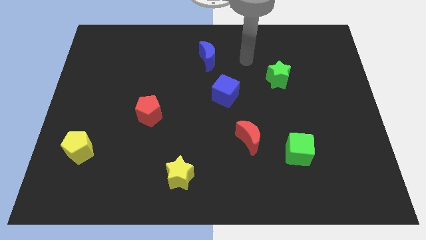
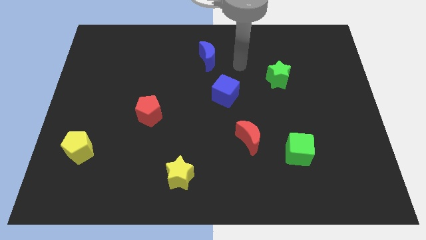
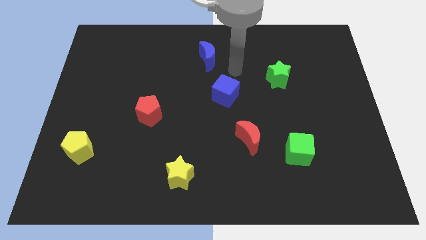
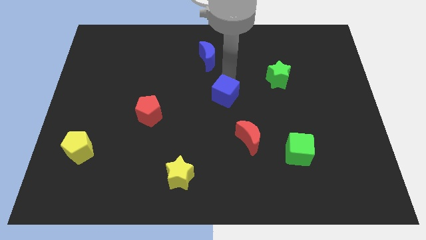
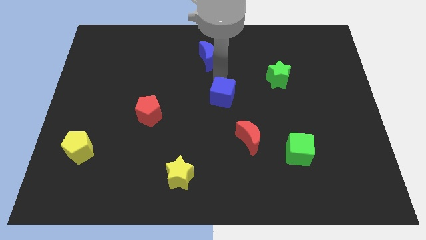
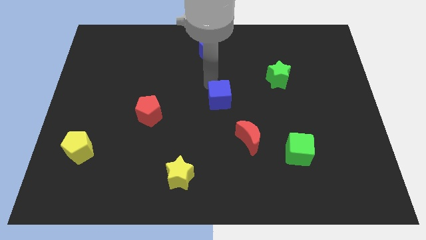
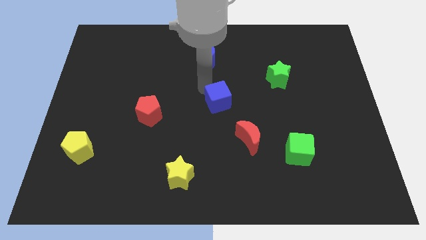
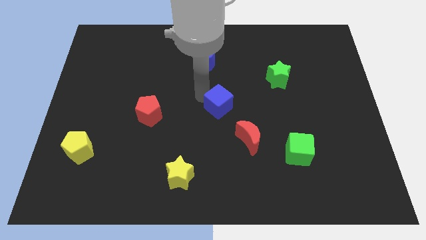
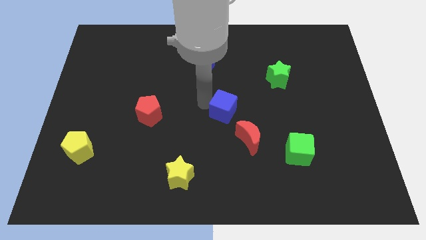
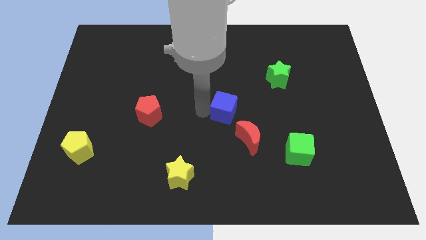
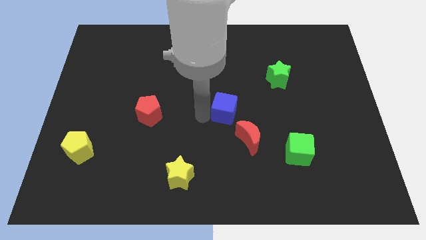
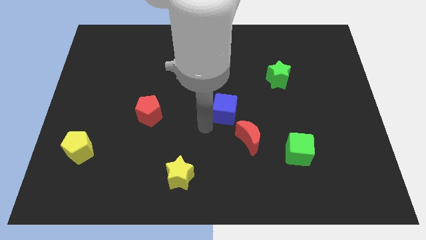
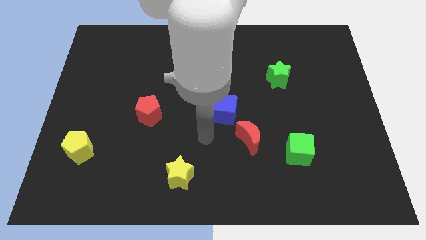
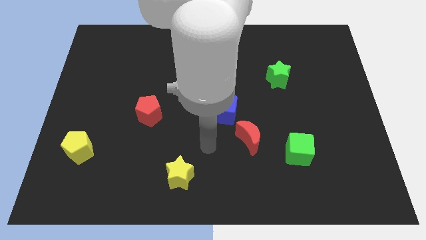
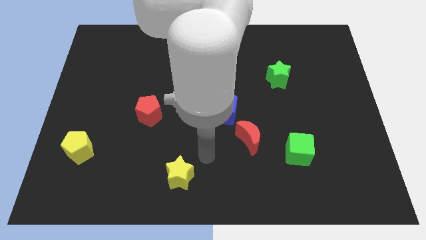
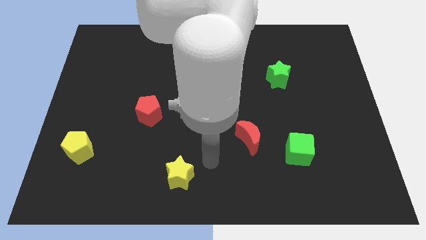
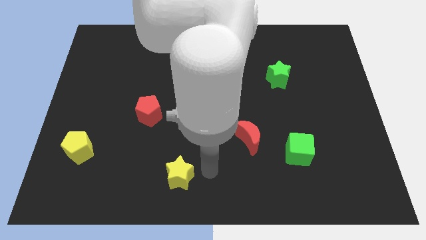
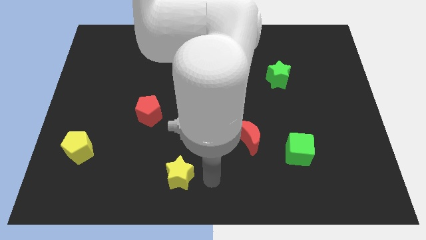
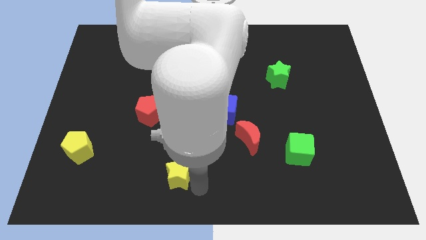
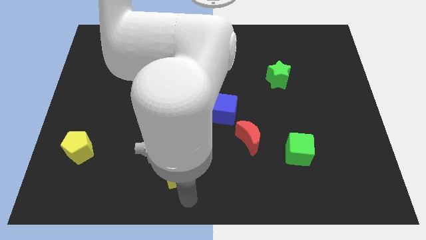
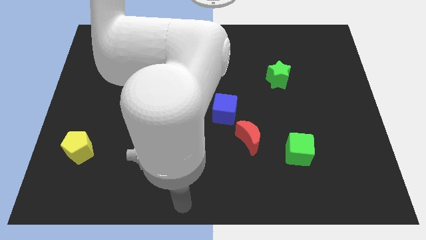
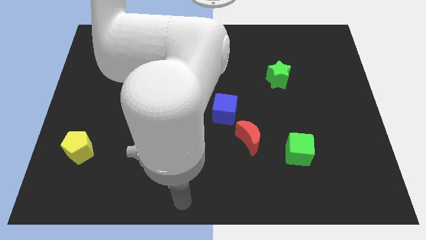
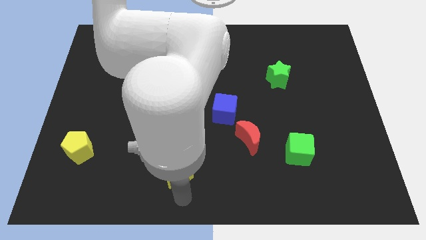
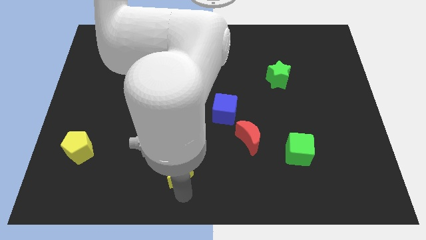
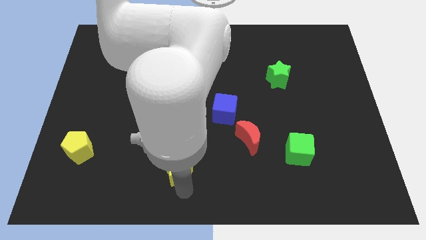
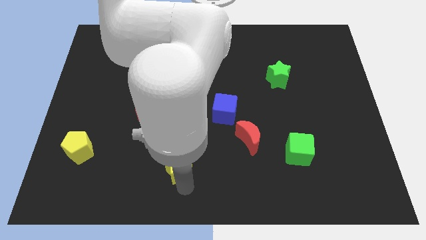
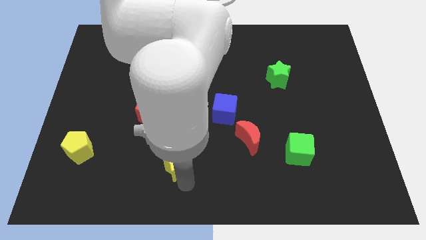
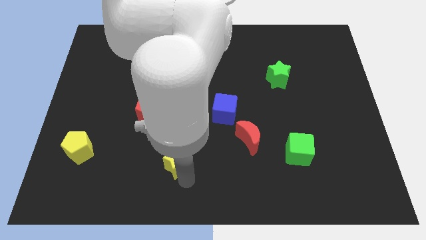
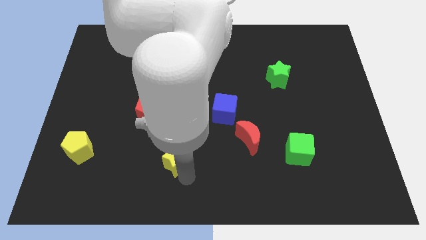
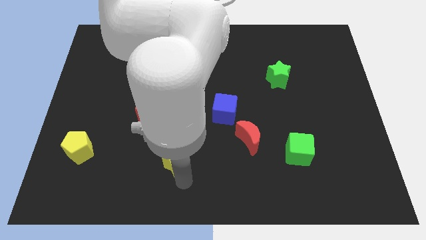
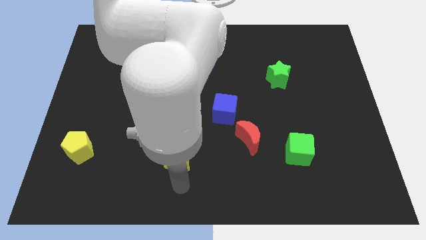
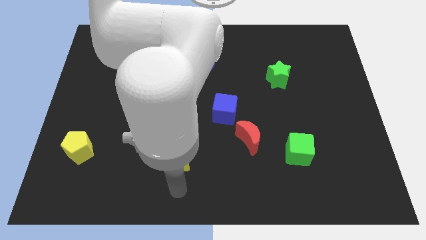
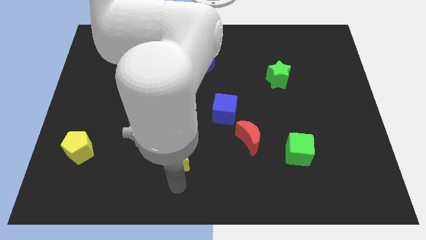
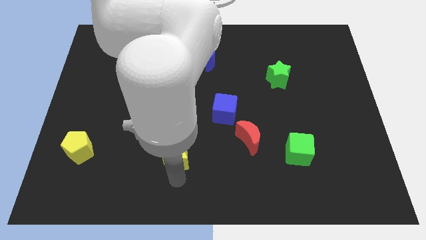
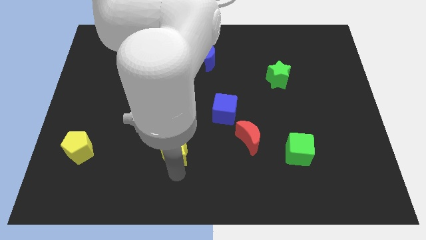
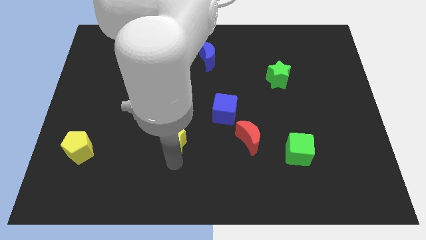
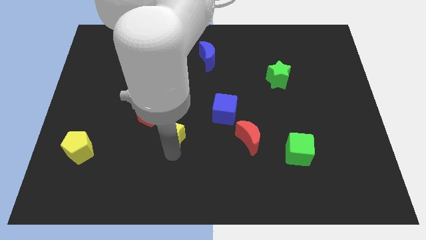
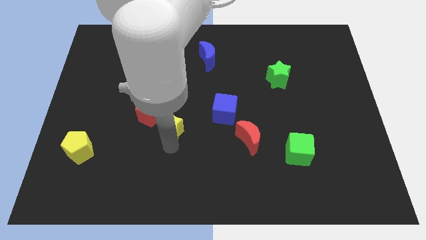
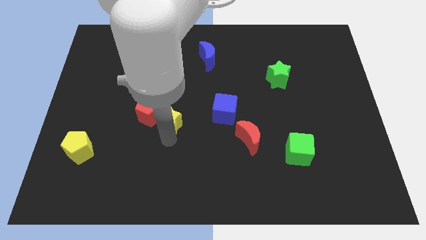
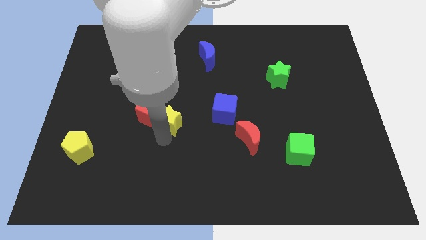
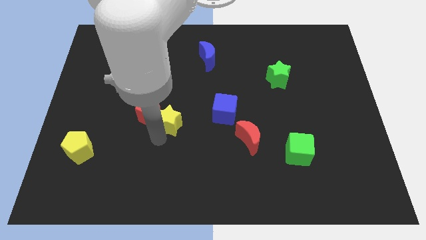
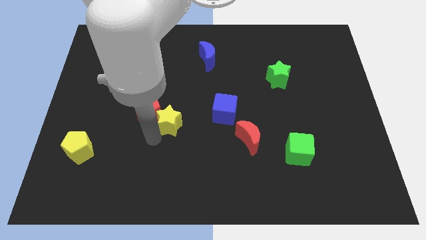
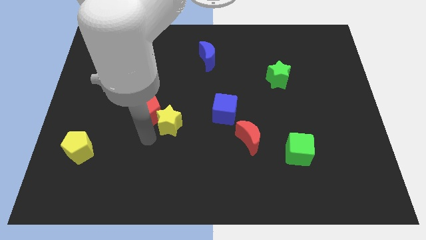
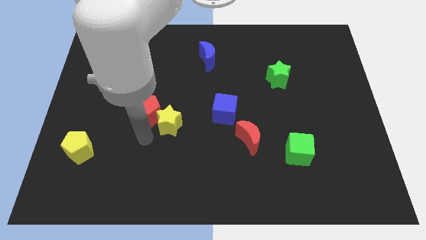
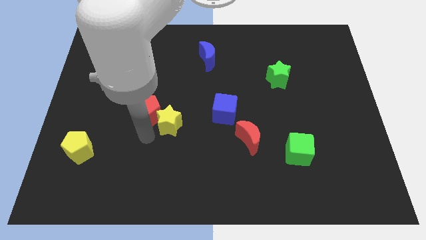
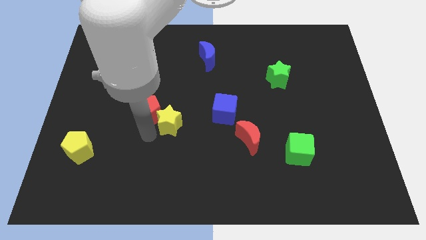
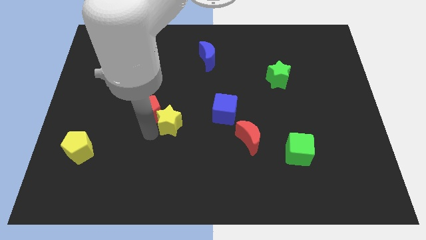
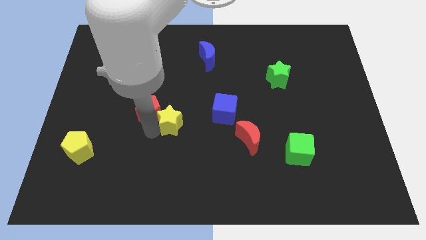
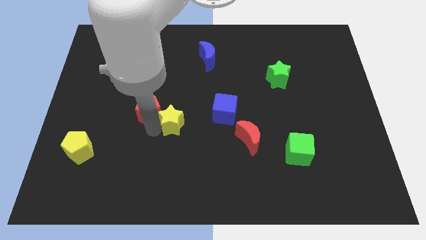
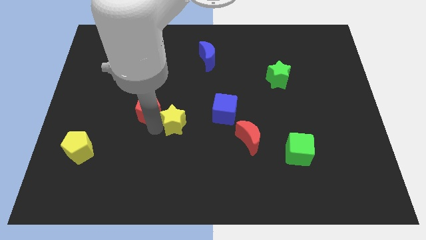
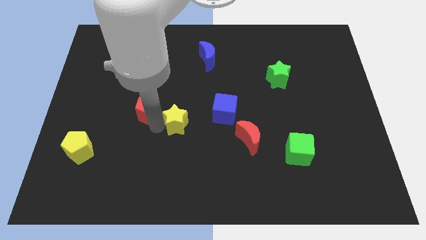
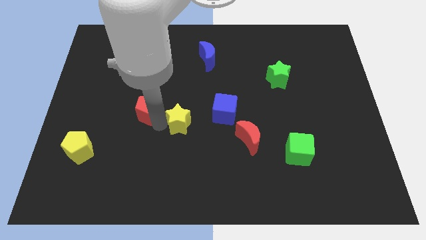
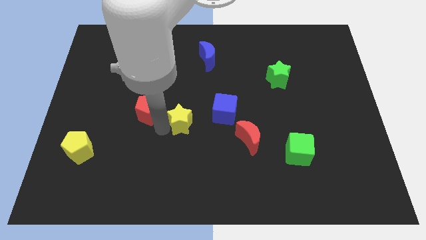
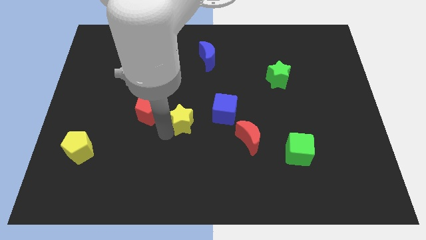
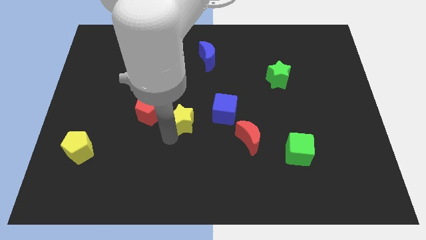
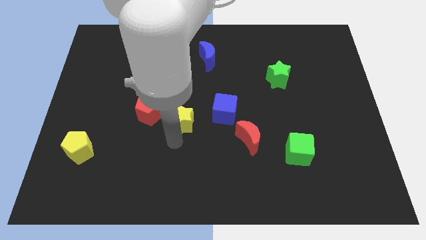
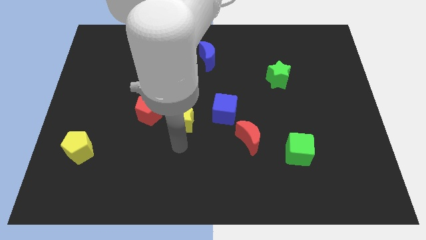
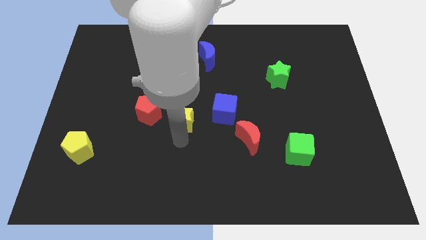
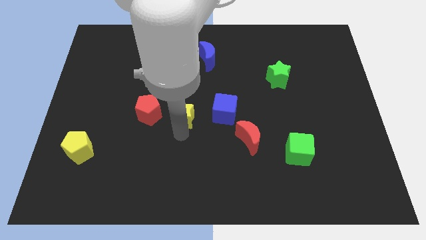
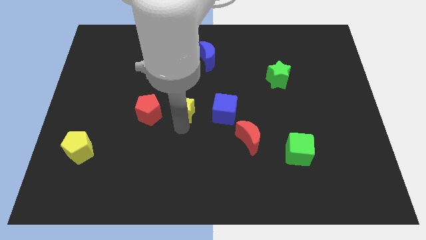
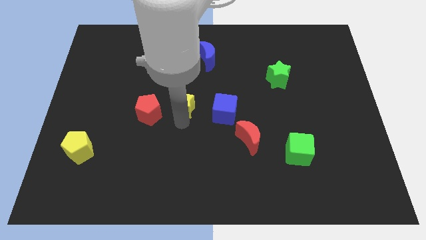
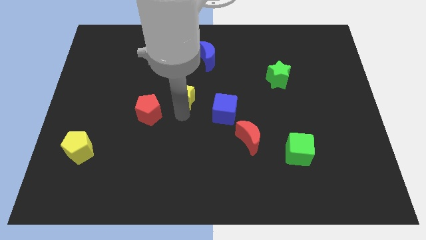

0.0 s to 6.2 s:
move the yellow star upwards

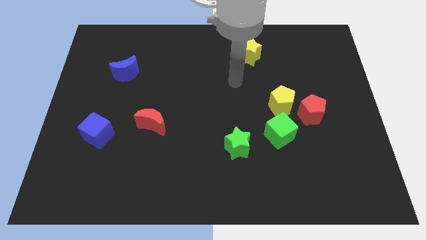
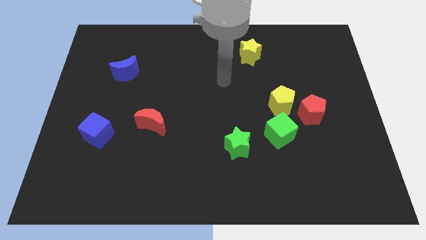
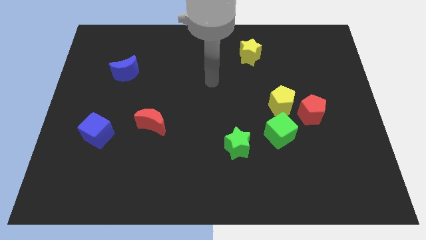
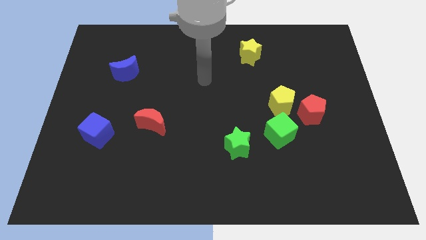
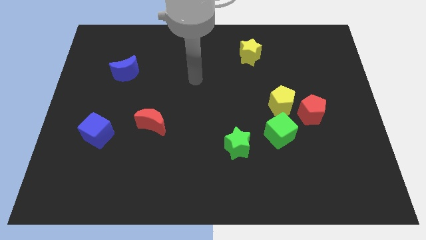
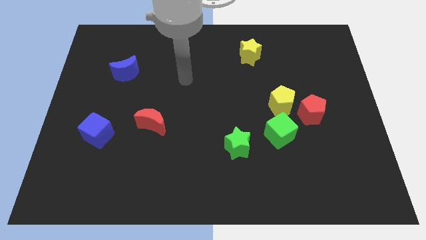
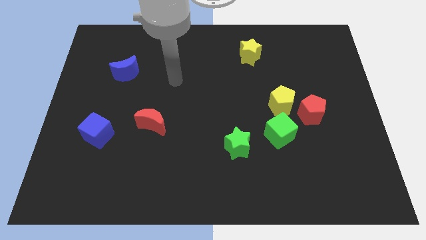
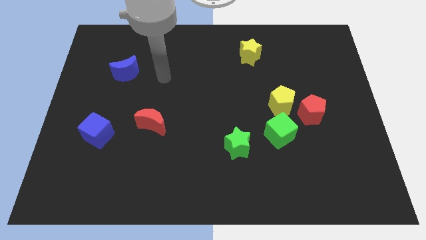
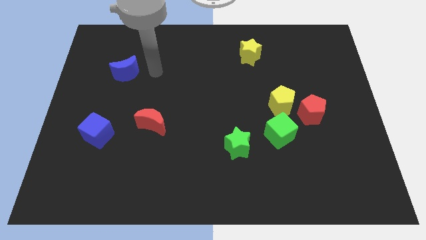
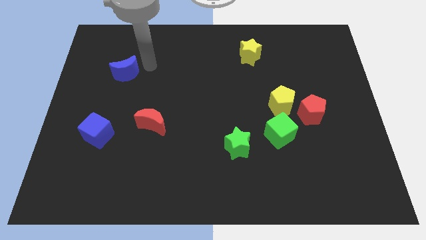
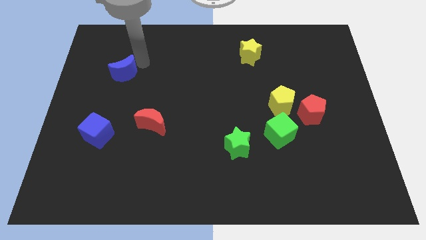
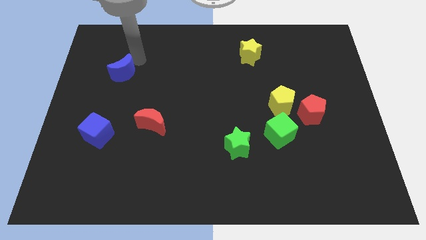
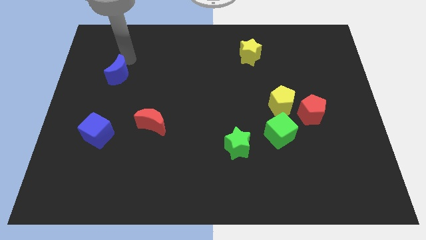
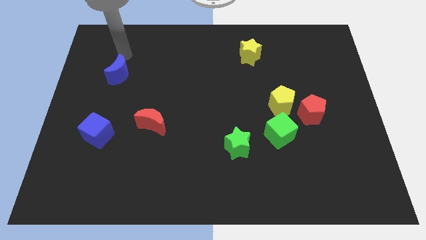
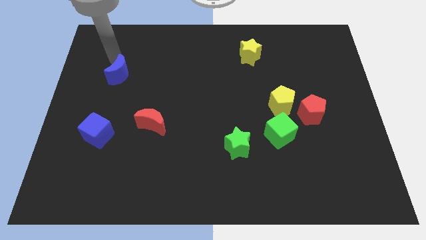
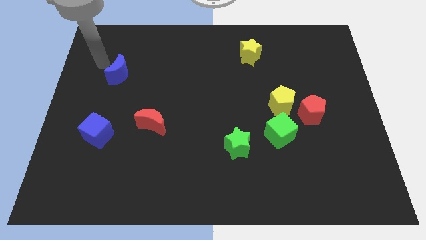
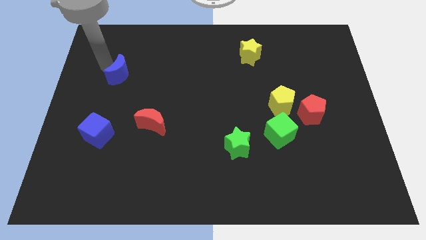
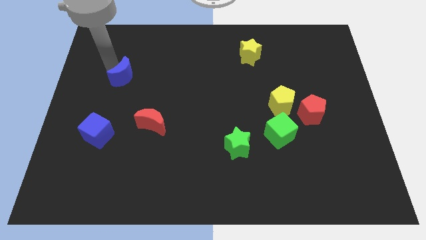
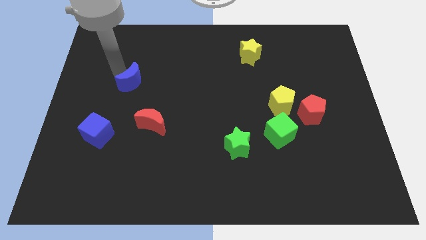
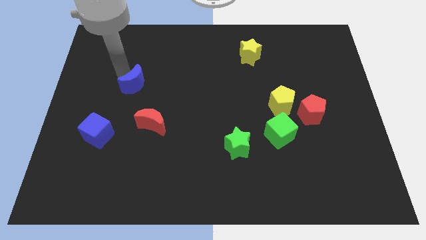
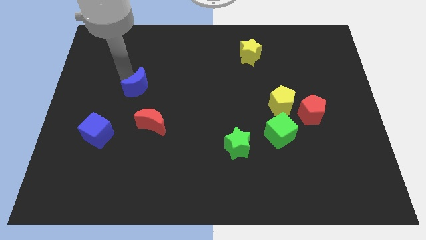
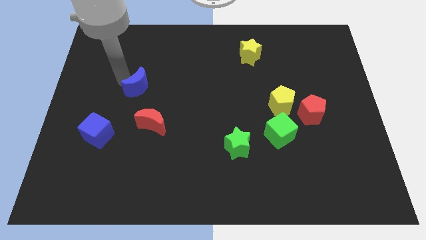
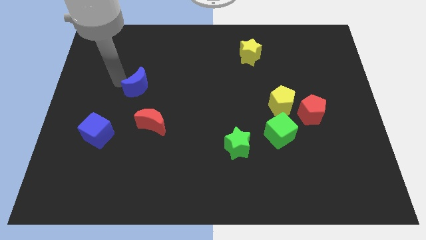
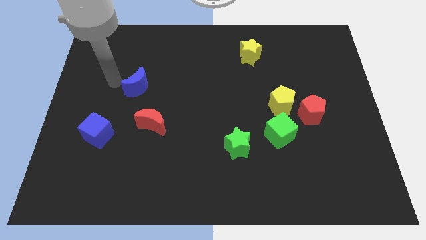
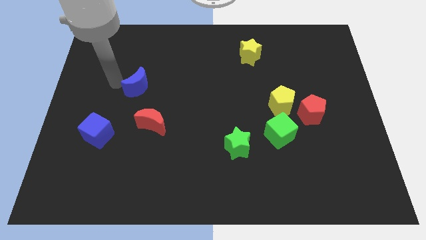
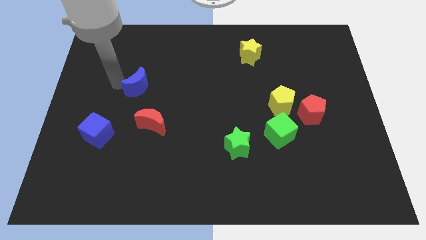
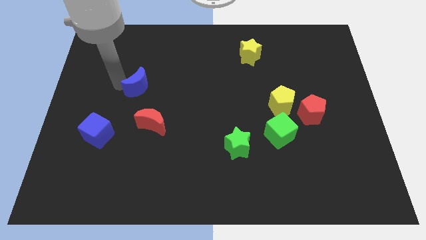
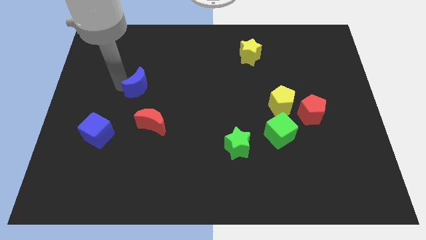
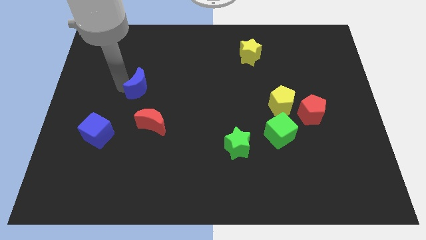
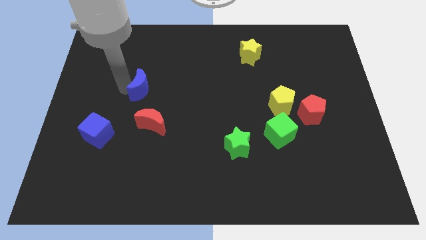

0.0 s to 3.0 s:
slightly move the blue moon downwards and right
